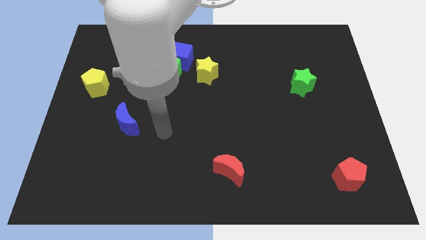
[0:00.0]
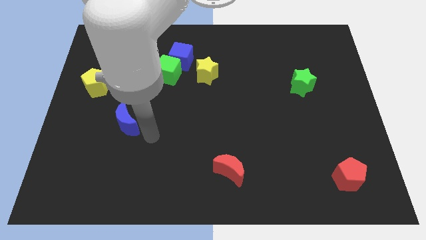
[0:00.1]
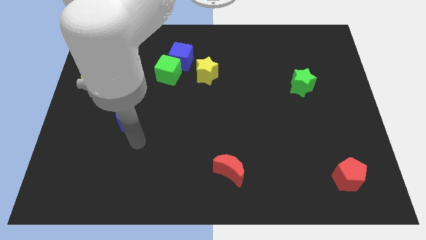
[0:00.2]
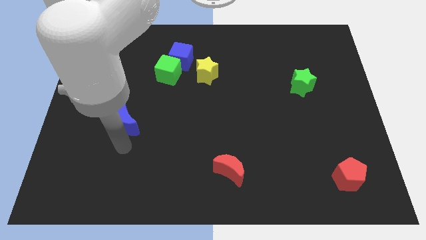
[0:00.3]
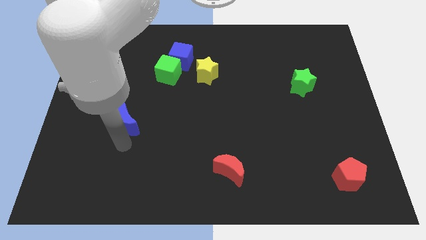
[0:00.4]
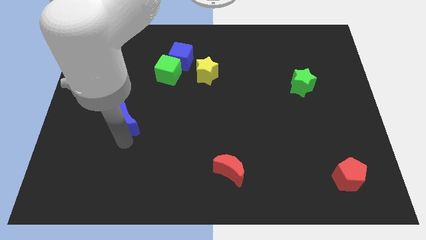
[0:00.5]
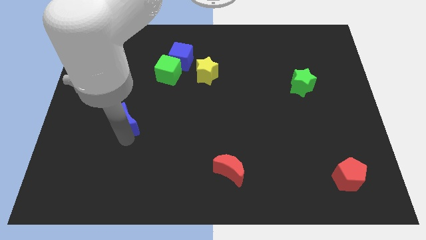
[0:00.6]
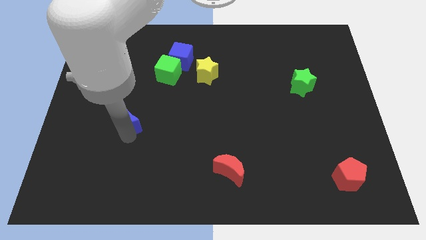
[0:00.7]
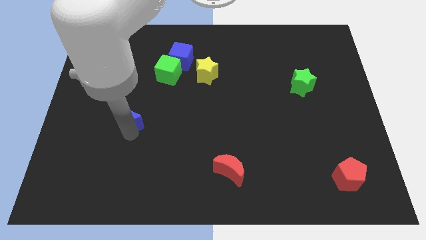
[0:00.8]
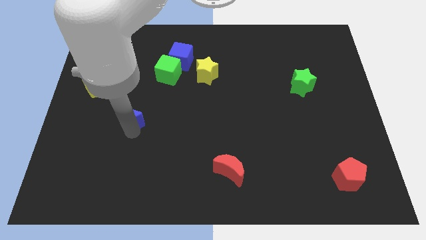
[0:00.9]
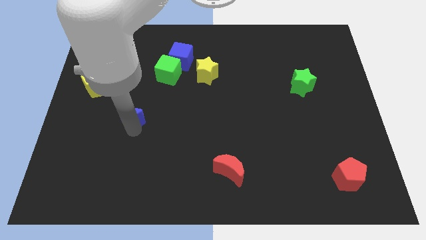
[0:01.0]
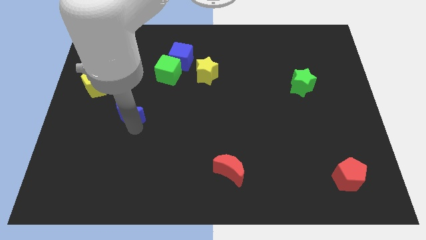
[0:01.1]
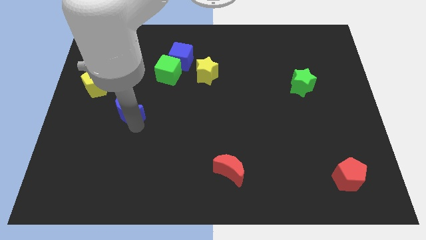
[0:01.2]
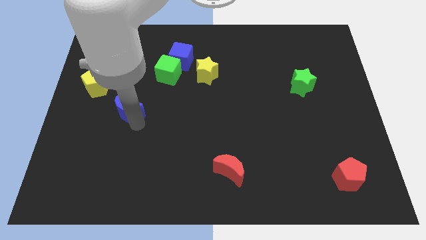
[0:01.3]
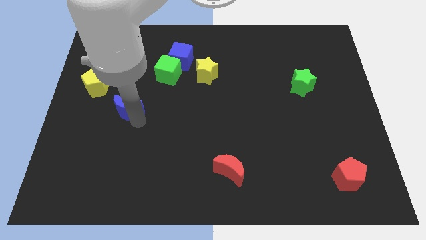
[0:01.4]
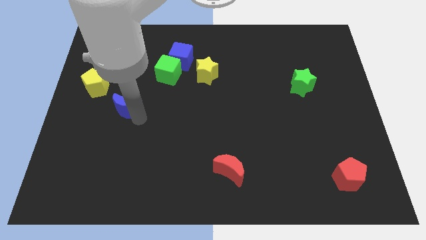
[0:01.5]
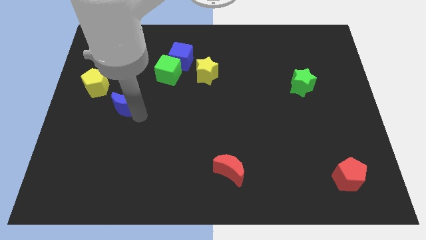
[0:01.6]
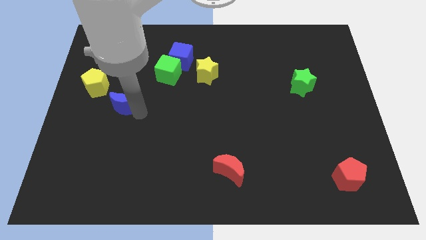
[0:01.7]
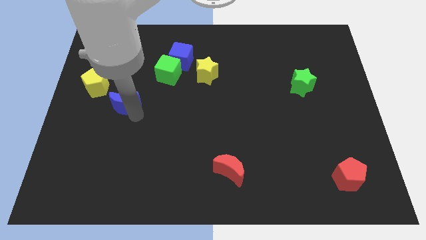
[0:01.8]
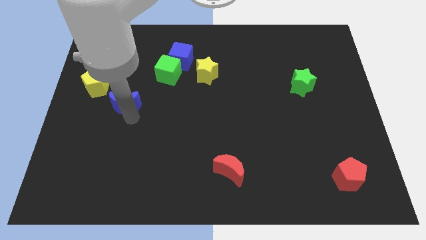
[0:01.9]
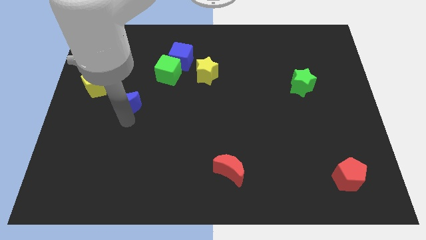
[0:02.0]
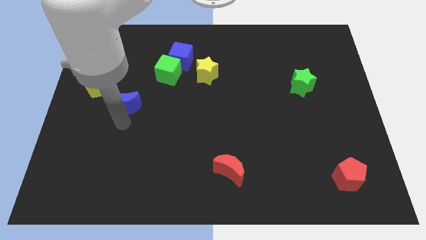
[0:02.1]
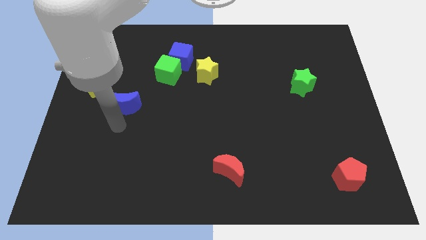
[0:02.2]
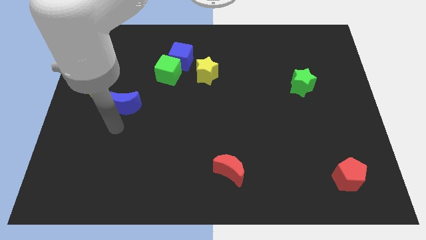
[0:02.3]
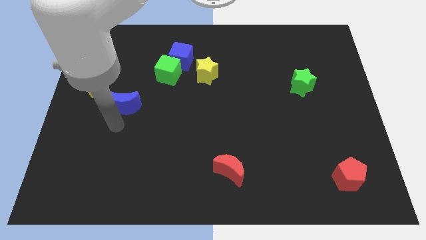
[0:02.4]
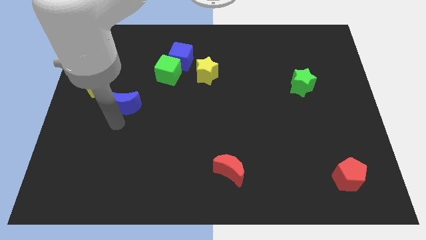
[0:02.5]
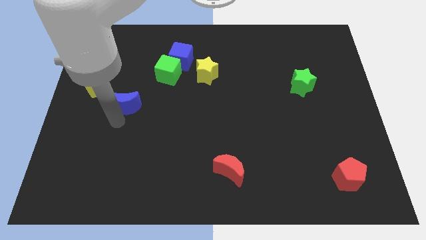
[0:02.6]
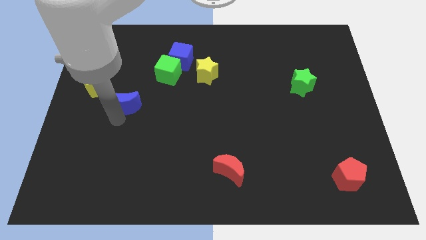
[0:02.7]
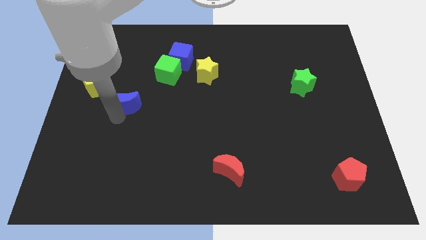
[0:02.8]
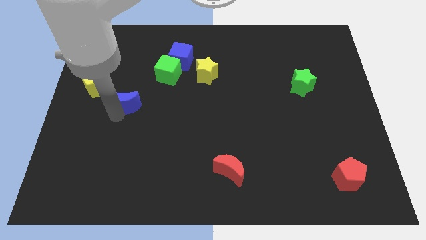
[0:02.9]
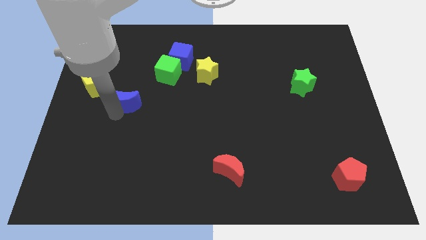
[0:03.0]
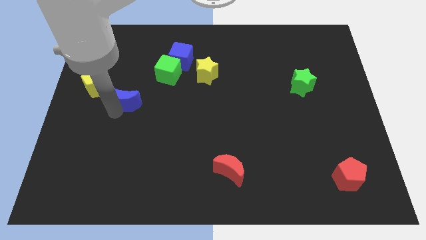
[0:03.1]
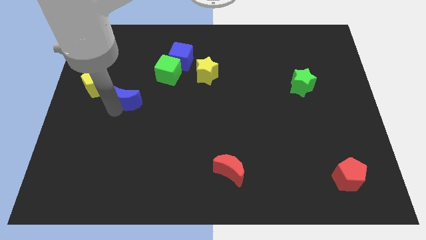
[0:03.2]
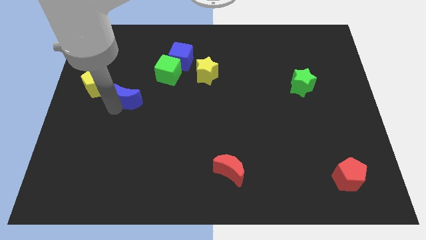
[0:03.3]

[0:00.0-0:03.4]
slightly slide the blue moon upwards

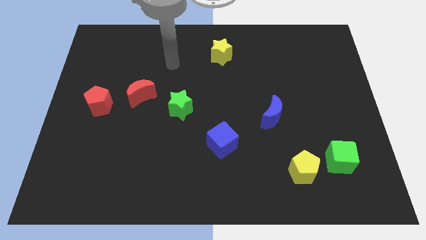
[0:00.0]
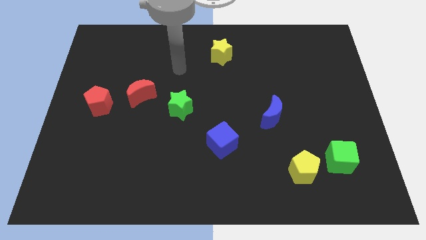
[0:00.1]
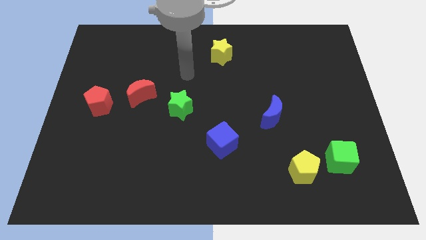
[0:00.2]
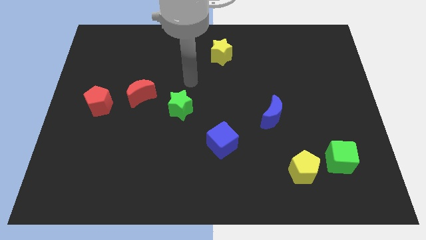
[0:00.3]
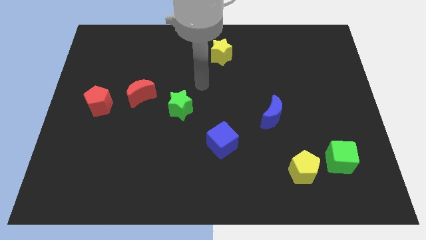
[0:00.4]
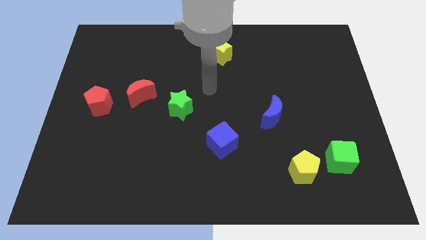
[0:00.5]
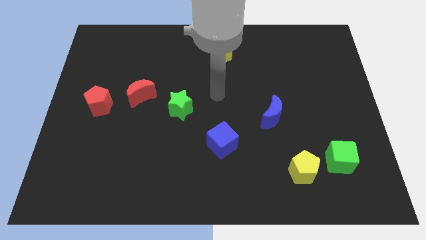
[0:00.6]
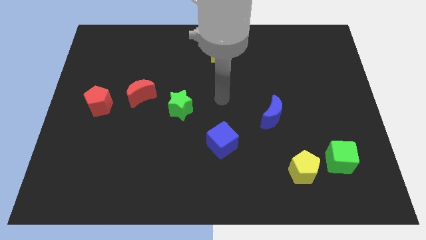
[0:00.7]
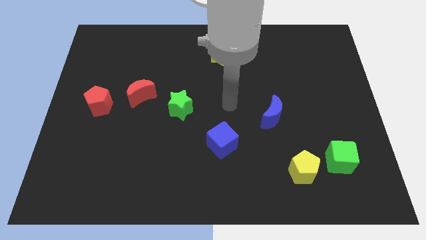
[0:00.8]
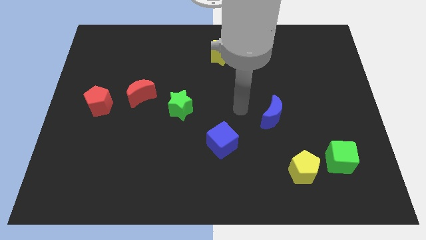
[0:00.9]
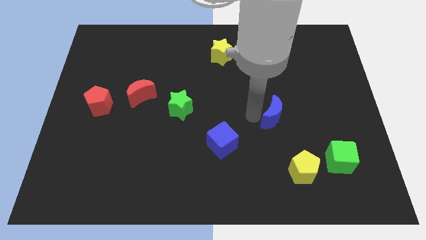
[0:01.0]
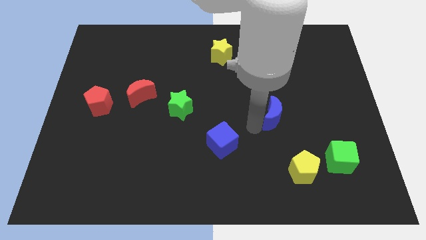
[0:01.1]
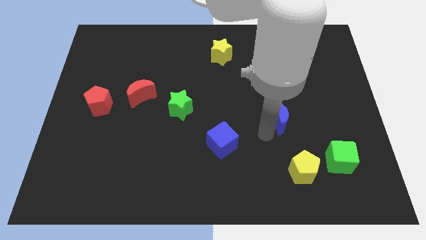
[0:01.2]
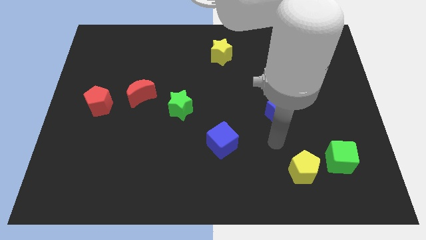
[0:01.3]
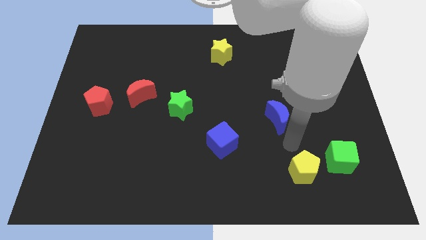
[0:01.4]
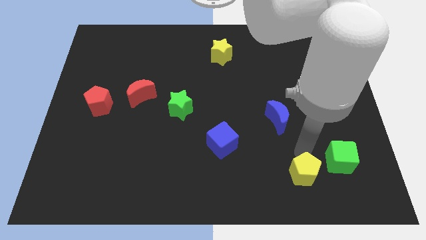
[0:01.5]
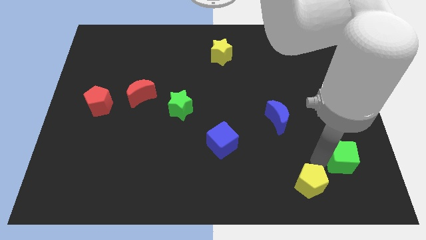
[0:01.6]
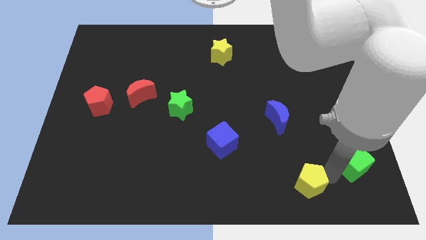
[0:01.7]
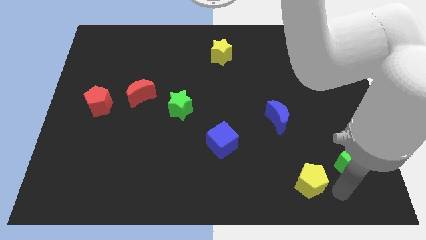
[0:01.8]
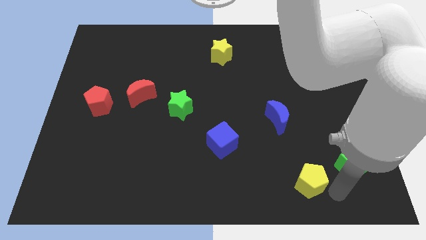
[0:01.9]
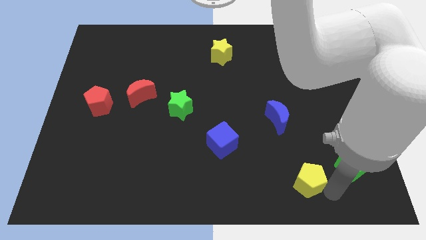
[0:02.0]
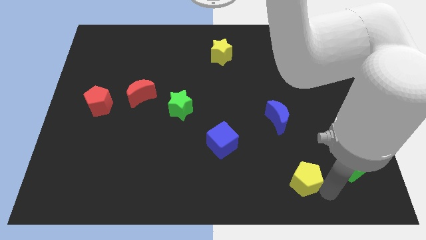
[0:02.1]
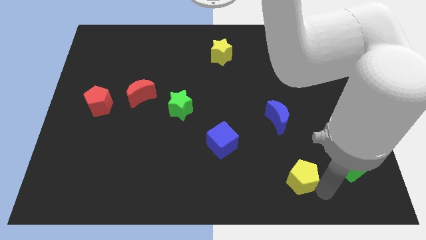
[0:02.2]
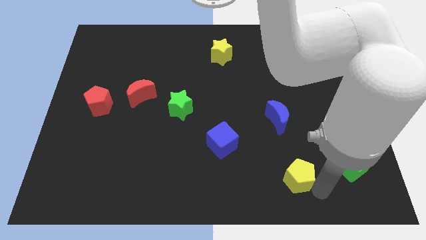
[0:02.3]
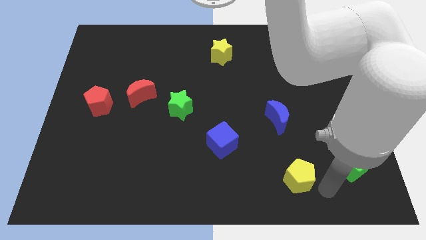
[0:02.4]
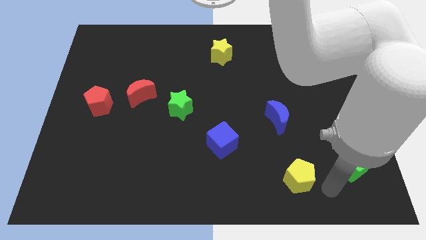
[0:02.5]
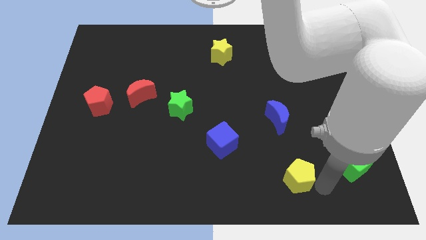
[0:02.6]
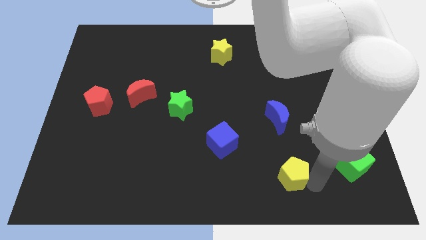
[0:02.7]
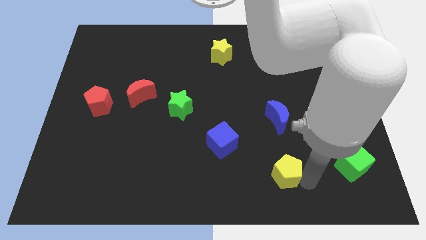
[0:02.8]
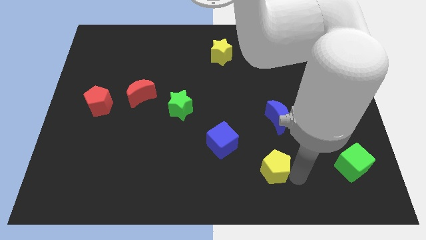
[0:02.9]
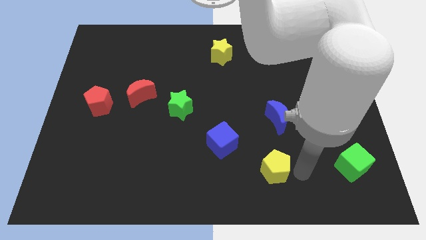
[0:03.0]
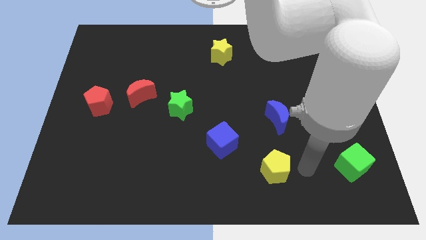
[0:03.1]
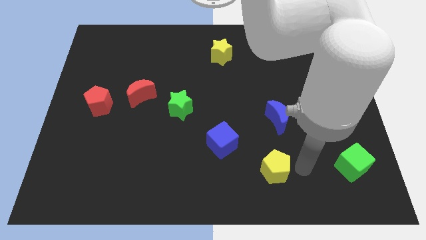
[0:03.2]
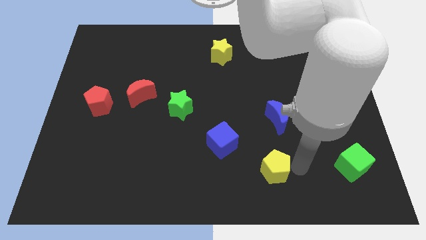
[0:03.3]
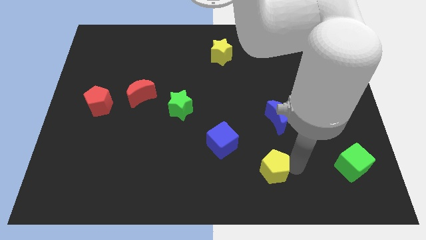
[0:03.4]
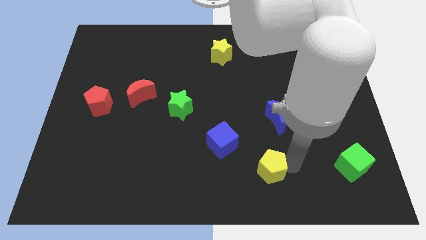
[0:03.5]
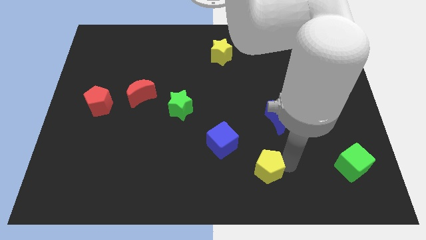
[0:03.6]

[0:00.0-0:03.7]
slightly slide the yellow pentagon left

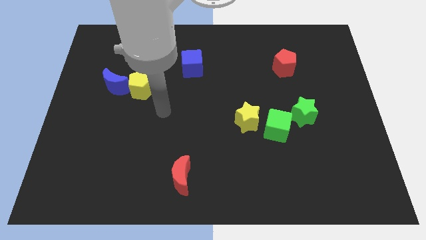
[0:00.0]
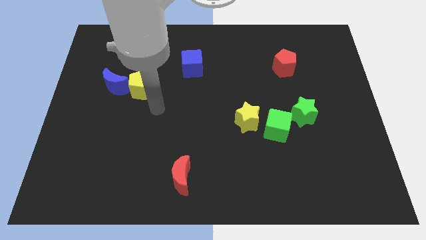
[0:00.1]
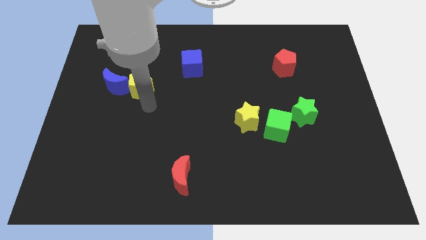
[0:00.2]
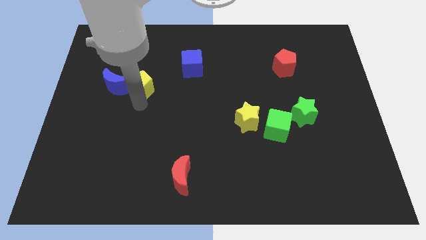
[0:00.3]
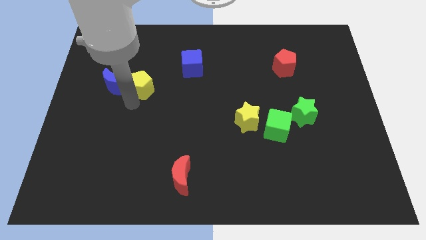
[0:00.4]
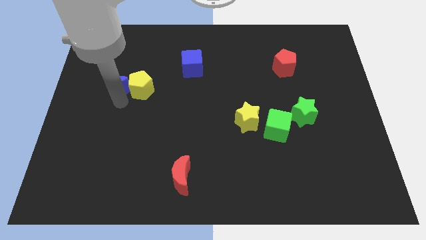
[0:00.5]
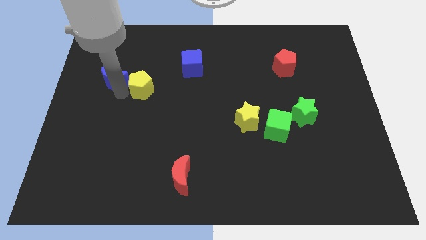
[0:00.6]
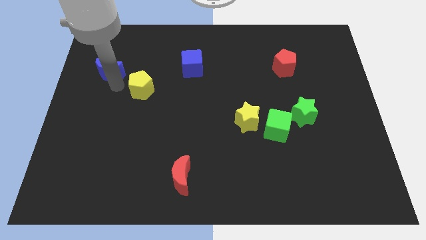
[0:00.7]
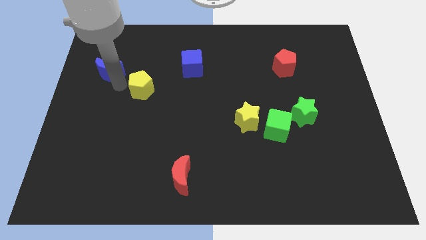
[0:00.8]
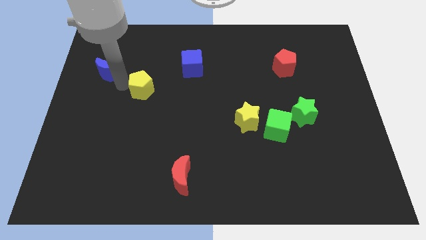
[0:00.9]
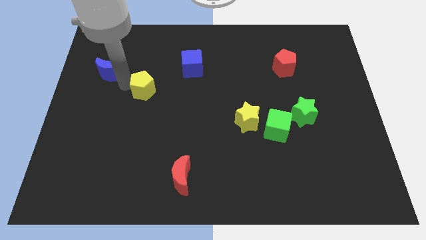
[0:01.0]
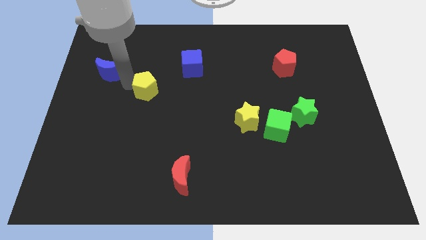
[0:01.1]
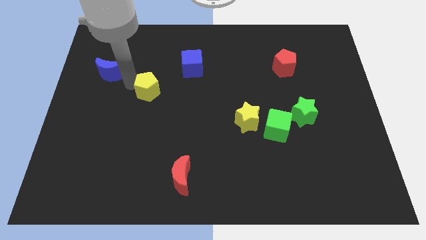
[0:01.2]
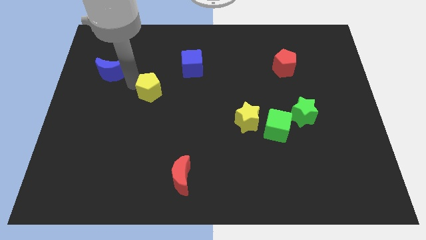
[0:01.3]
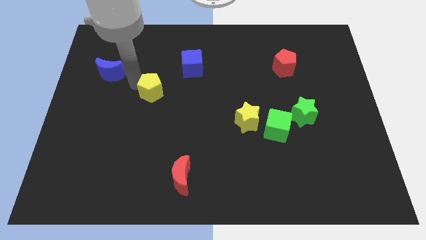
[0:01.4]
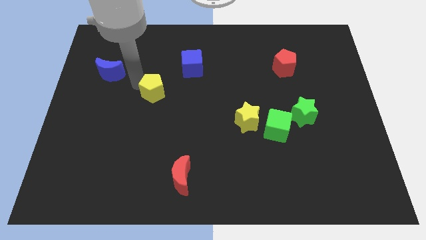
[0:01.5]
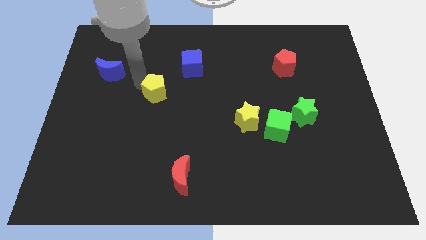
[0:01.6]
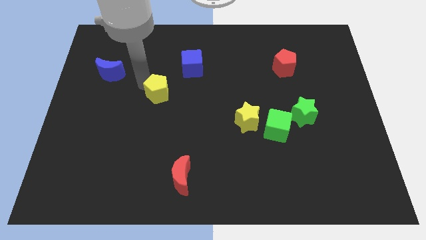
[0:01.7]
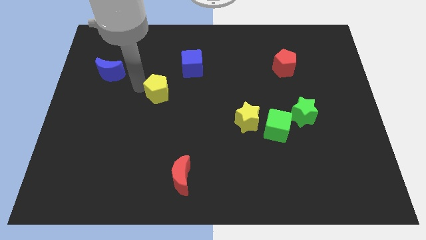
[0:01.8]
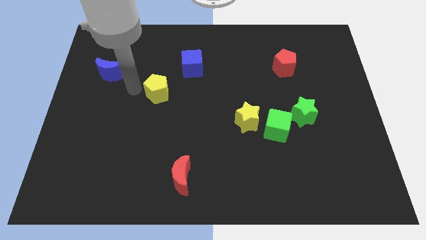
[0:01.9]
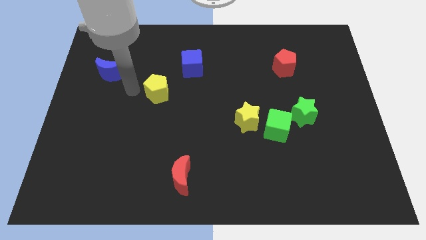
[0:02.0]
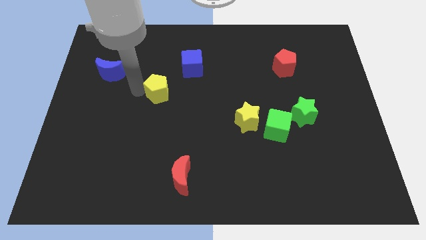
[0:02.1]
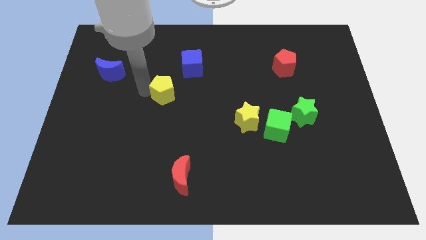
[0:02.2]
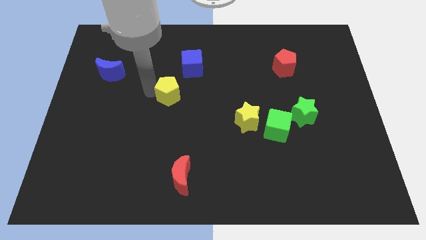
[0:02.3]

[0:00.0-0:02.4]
slightly move the yellow pentagon right
